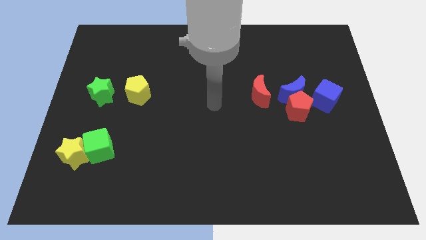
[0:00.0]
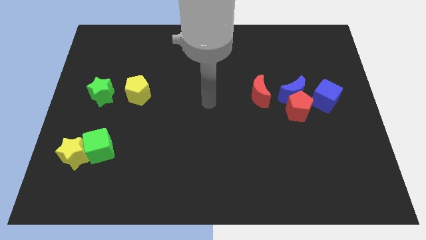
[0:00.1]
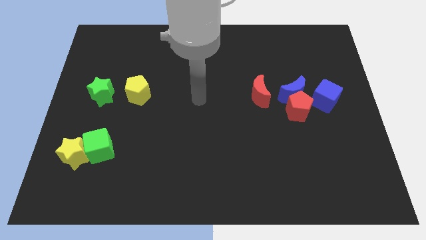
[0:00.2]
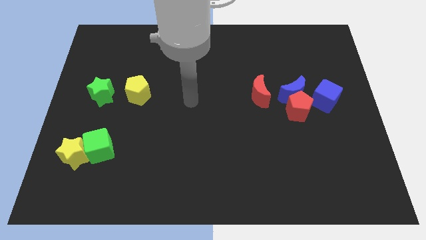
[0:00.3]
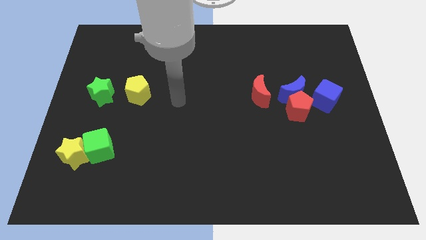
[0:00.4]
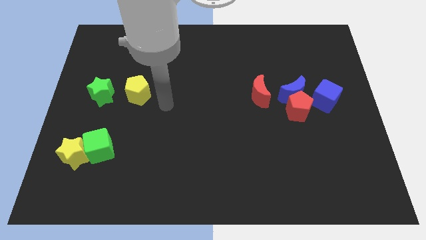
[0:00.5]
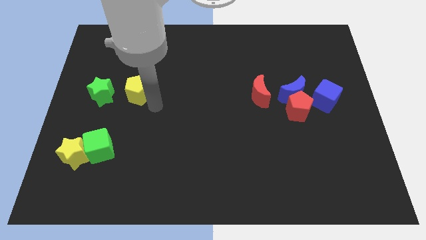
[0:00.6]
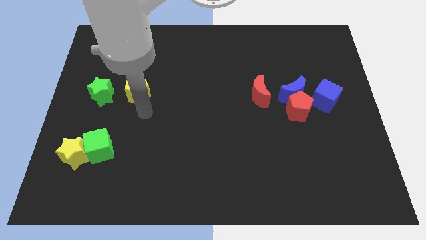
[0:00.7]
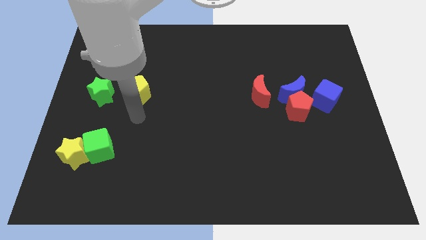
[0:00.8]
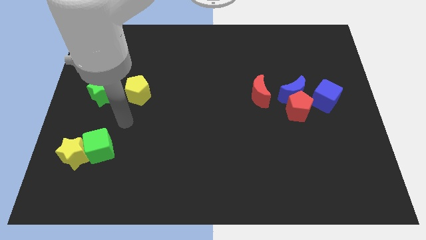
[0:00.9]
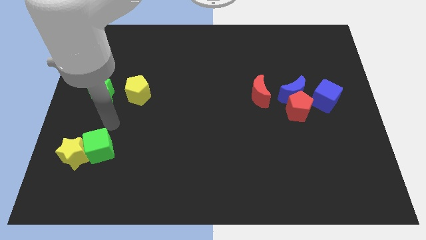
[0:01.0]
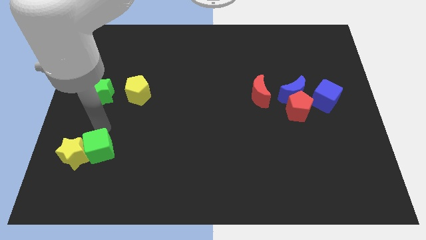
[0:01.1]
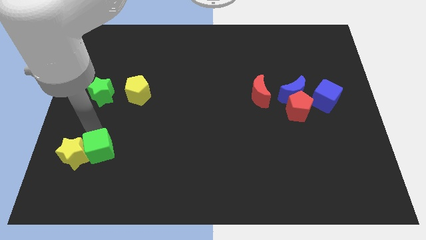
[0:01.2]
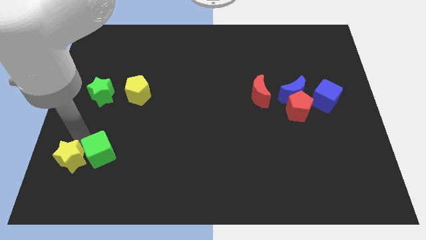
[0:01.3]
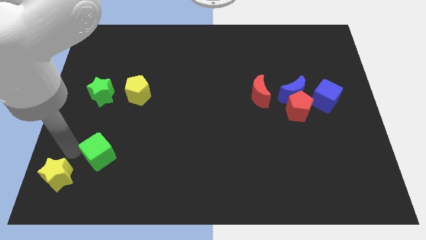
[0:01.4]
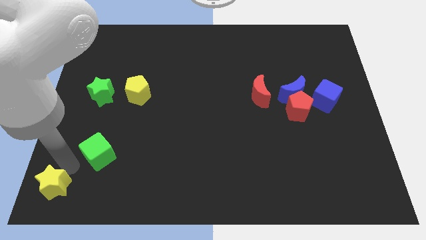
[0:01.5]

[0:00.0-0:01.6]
separate the green cube from the yellow star

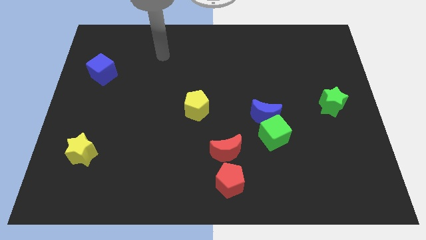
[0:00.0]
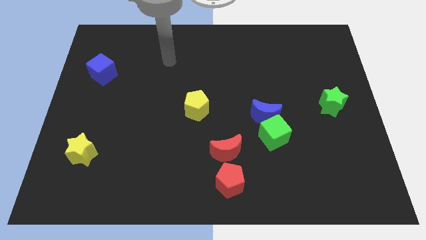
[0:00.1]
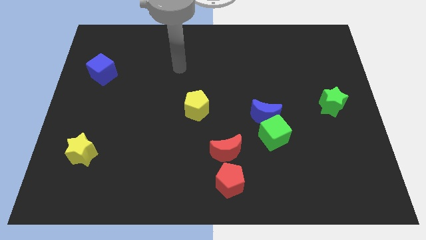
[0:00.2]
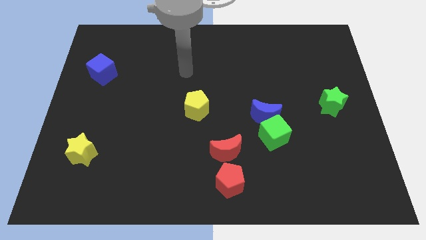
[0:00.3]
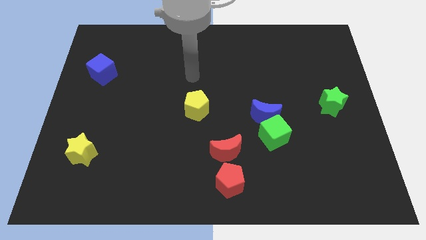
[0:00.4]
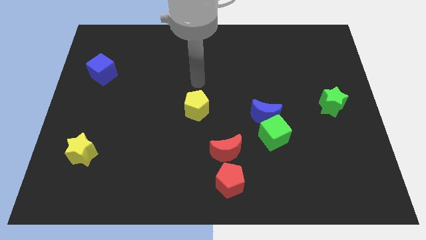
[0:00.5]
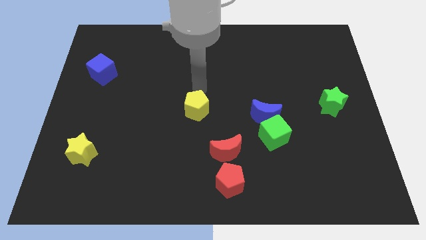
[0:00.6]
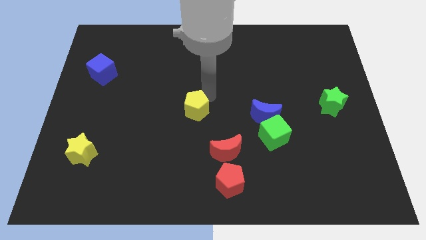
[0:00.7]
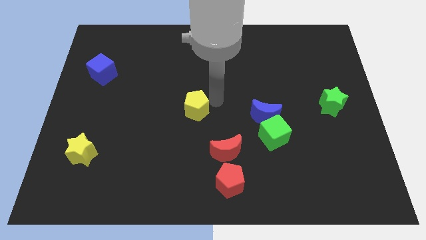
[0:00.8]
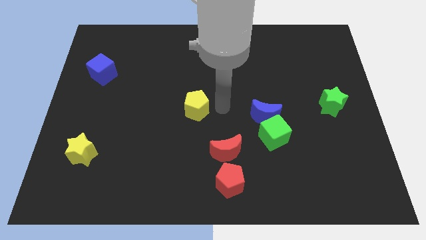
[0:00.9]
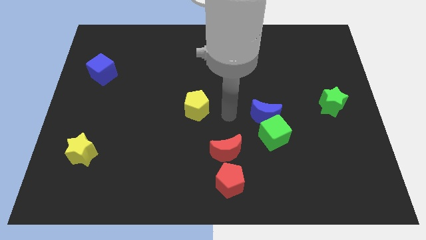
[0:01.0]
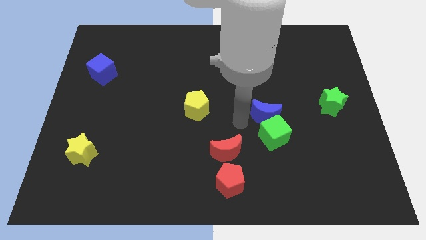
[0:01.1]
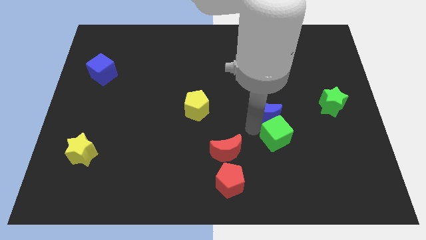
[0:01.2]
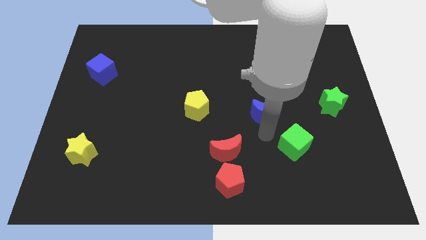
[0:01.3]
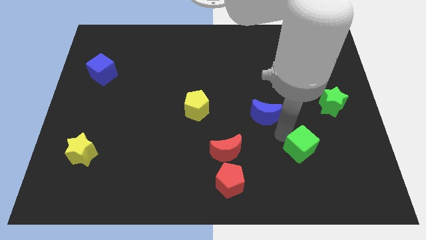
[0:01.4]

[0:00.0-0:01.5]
move the blue moon away from the green cube

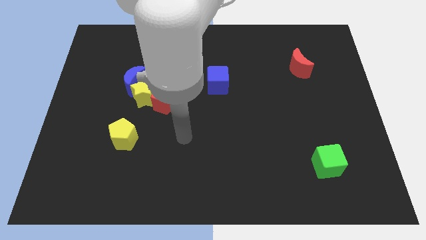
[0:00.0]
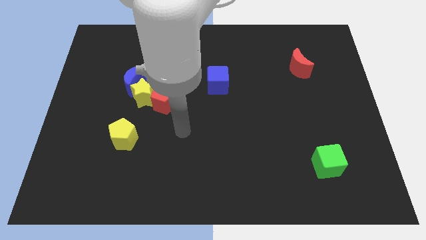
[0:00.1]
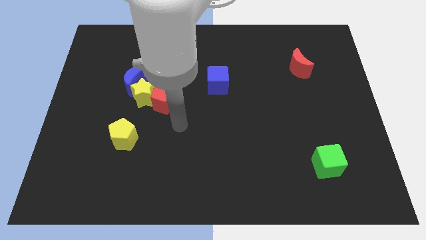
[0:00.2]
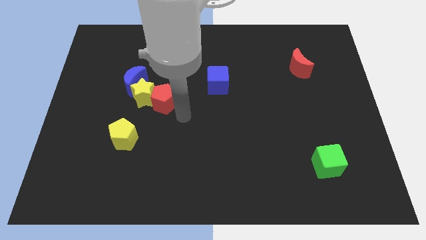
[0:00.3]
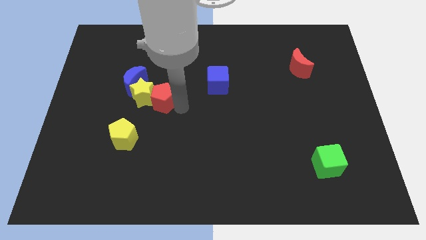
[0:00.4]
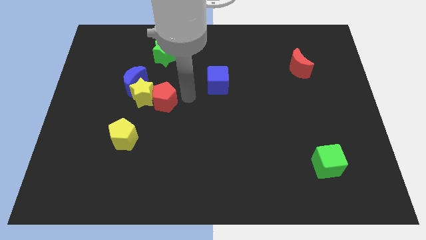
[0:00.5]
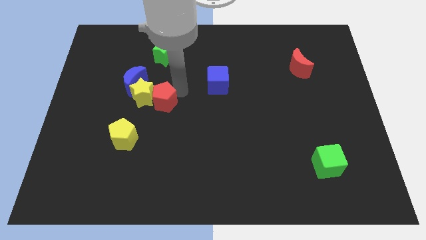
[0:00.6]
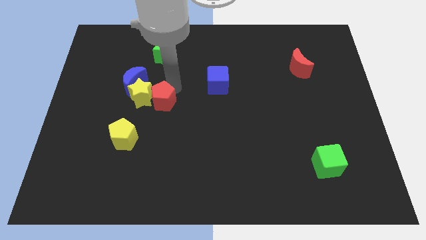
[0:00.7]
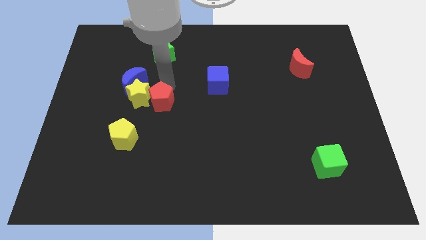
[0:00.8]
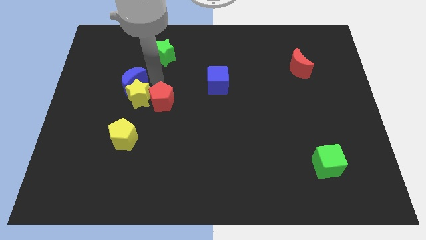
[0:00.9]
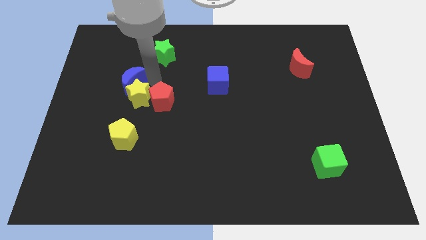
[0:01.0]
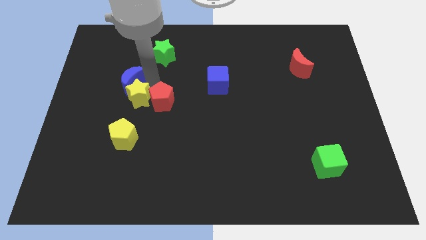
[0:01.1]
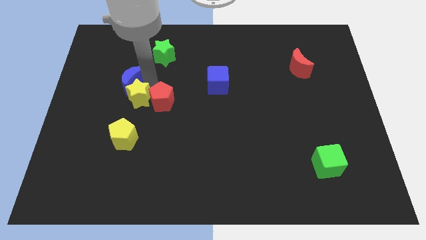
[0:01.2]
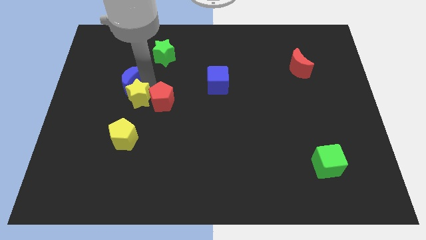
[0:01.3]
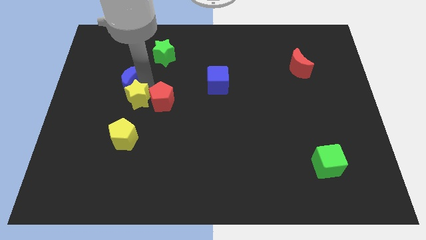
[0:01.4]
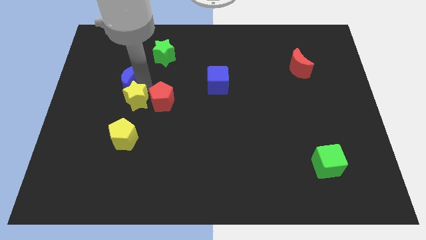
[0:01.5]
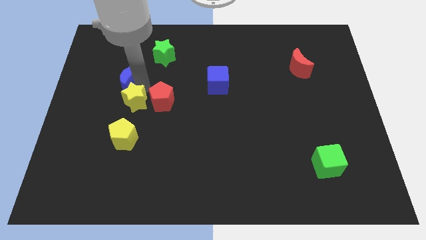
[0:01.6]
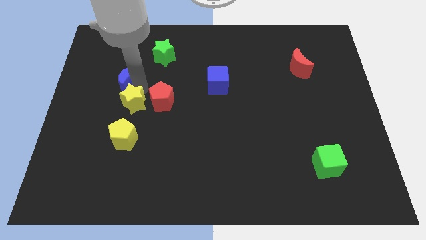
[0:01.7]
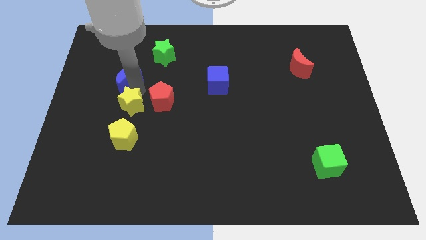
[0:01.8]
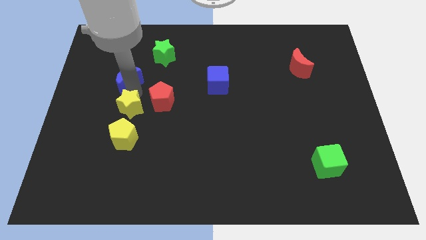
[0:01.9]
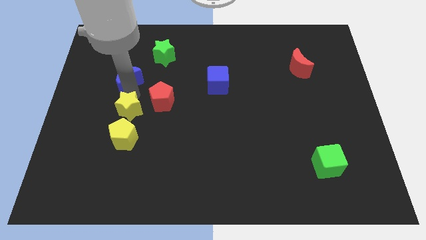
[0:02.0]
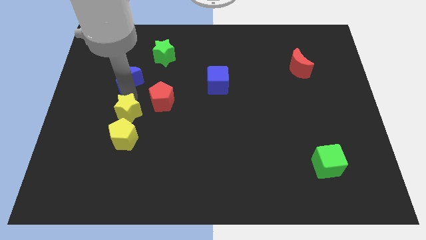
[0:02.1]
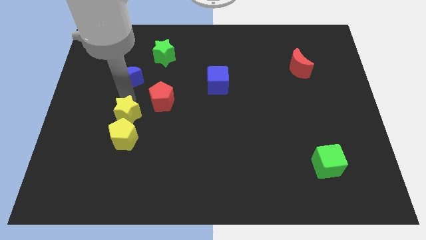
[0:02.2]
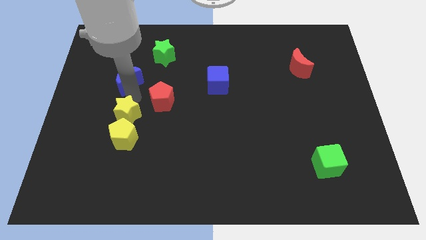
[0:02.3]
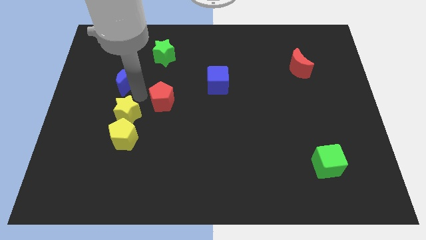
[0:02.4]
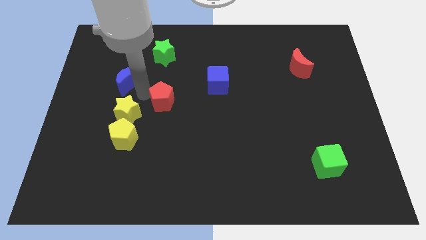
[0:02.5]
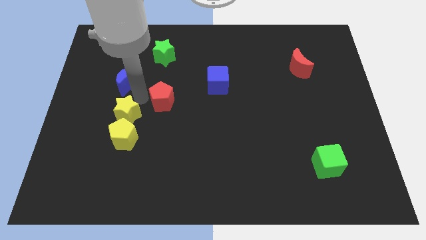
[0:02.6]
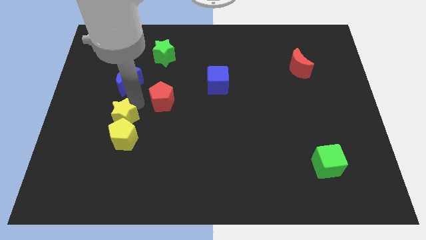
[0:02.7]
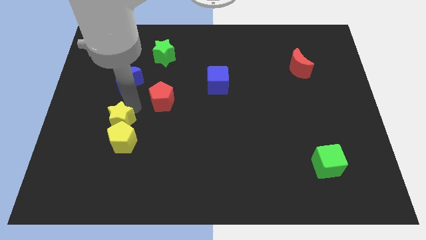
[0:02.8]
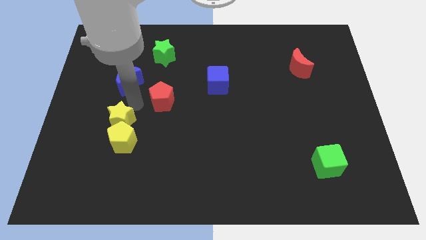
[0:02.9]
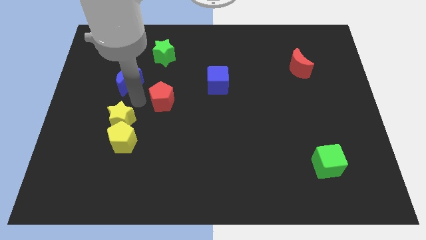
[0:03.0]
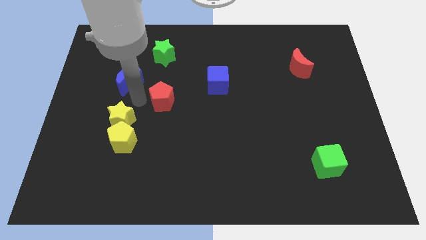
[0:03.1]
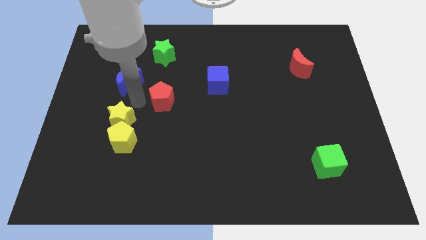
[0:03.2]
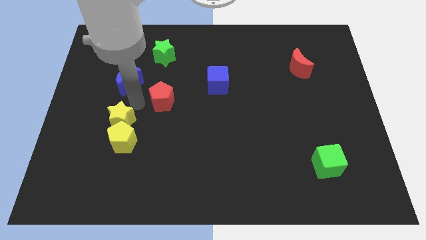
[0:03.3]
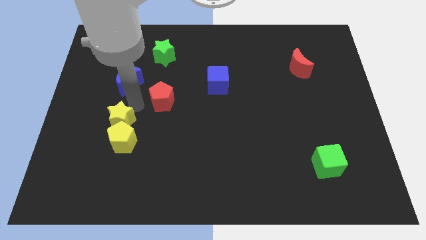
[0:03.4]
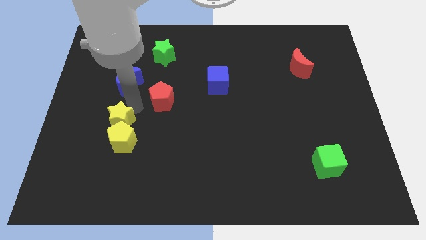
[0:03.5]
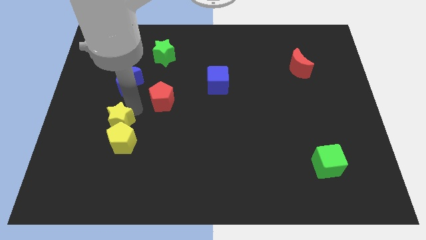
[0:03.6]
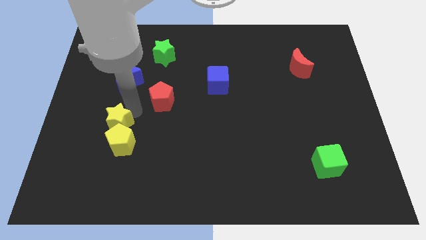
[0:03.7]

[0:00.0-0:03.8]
separate the yellow star from the blue moon and red pentagon

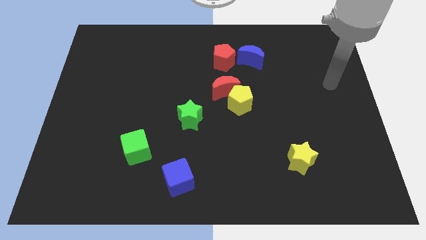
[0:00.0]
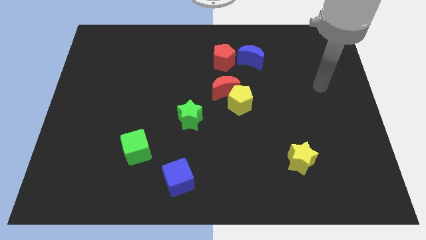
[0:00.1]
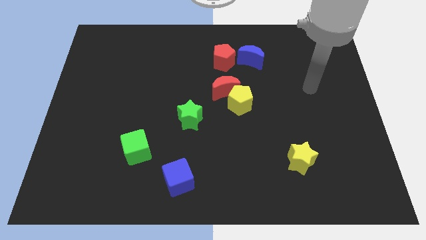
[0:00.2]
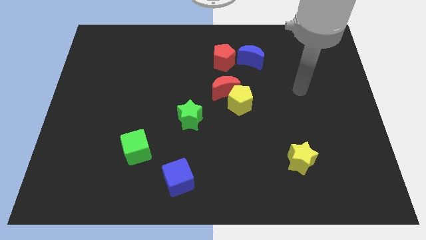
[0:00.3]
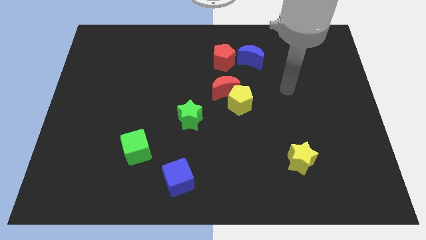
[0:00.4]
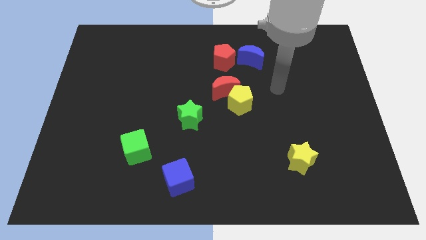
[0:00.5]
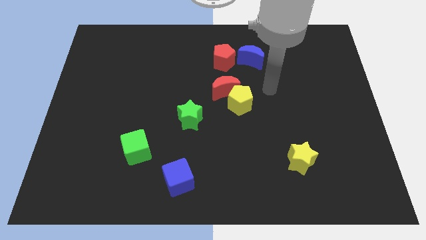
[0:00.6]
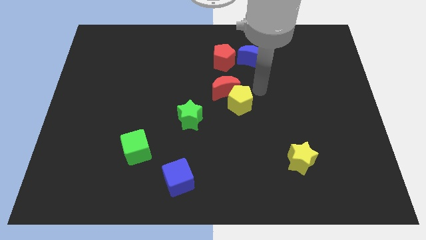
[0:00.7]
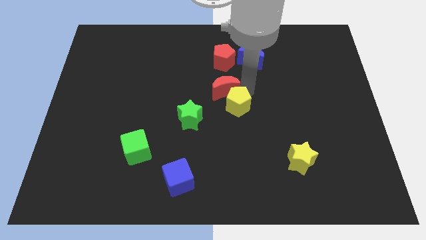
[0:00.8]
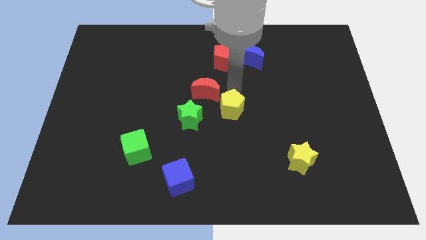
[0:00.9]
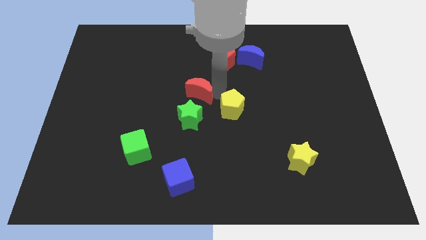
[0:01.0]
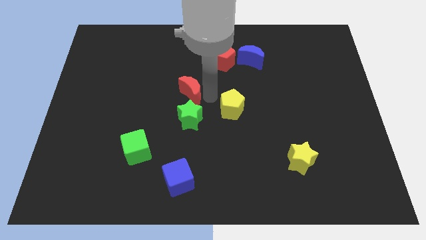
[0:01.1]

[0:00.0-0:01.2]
move the yellow pentagon away from the red moon

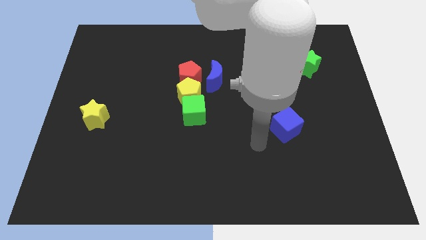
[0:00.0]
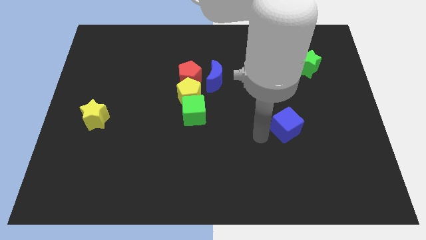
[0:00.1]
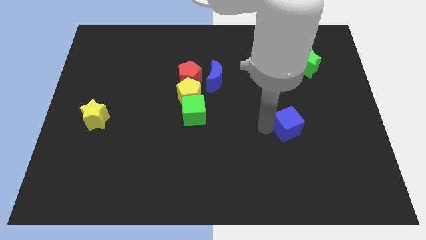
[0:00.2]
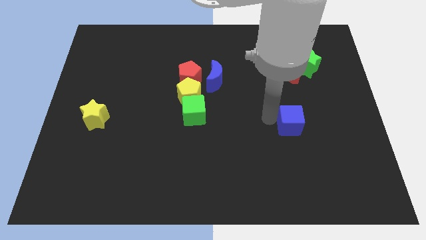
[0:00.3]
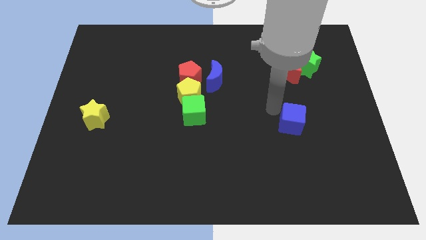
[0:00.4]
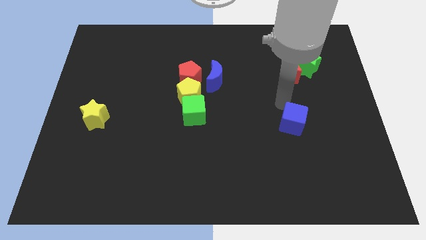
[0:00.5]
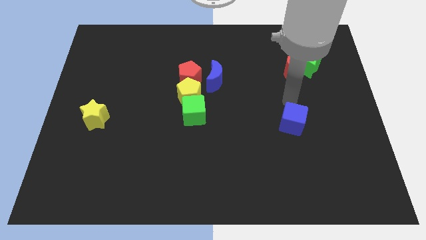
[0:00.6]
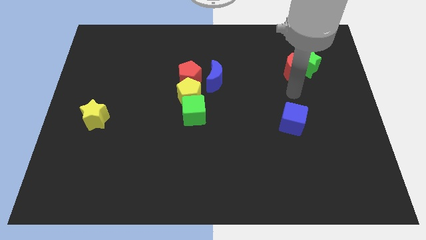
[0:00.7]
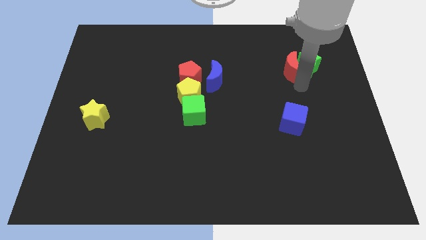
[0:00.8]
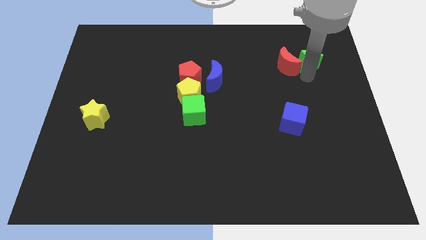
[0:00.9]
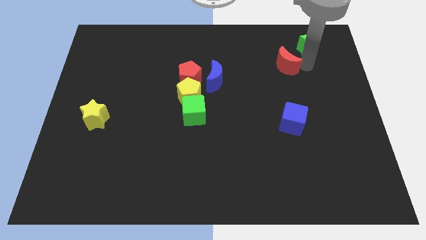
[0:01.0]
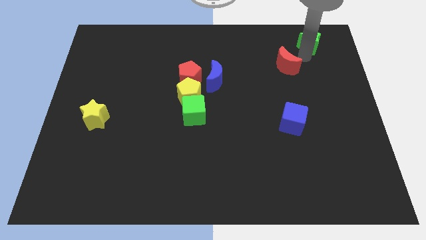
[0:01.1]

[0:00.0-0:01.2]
move the red moon away from the green star
